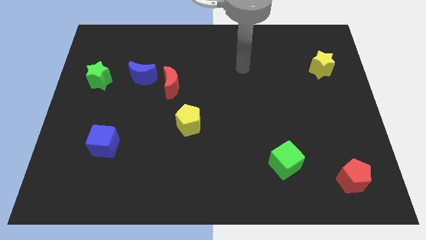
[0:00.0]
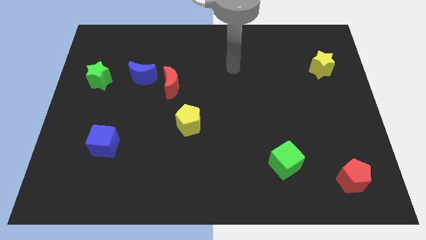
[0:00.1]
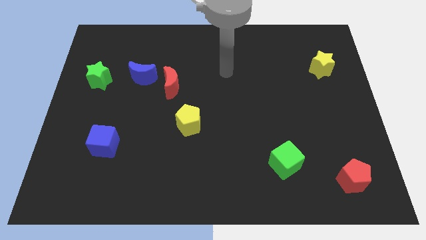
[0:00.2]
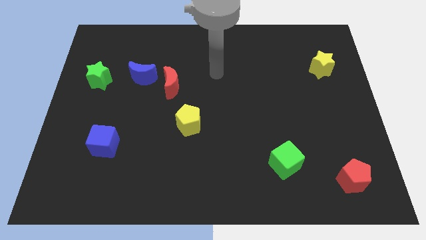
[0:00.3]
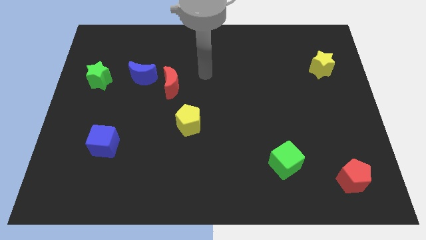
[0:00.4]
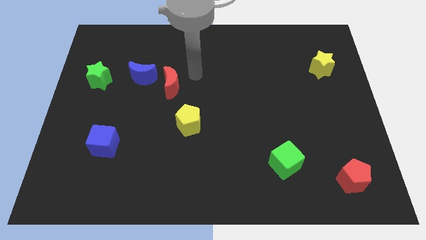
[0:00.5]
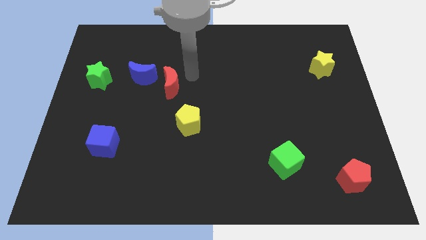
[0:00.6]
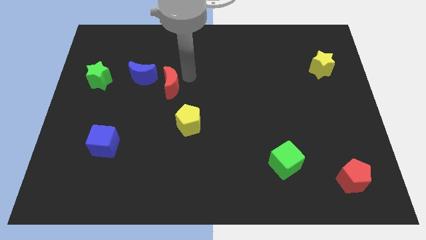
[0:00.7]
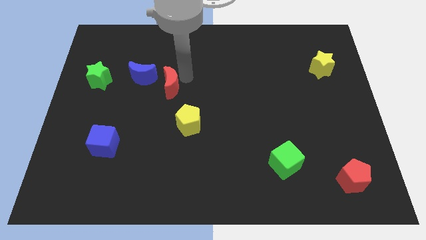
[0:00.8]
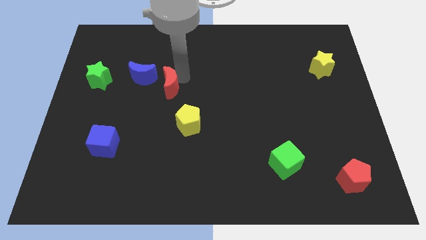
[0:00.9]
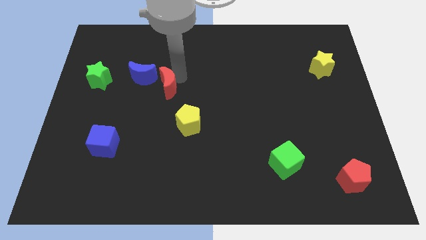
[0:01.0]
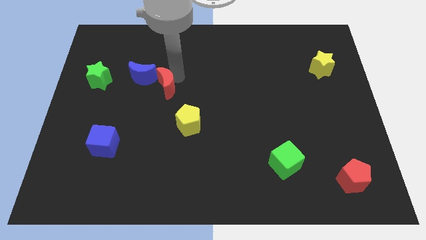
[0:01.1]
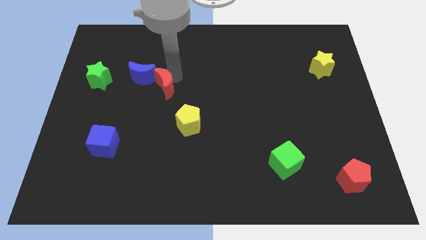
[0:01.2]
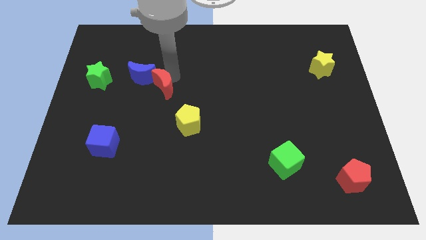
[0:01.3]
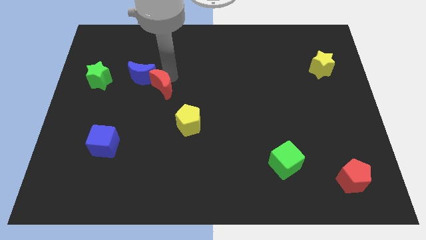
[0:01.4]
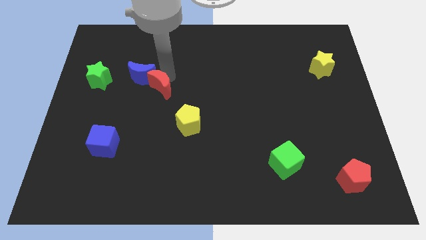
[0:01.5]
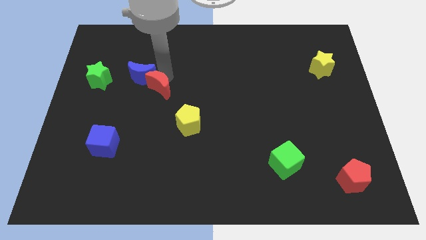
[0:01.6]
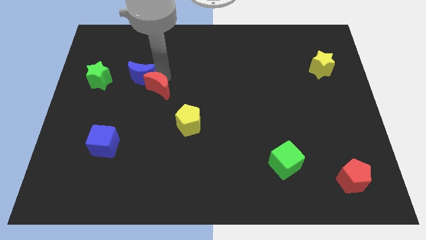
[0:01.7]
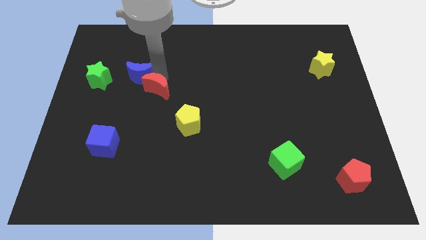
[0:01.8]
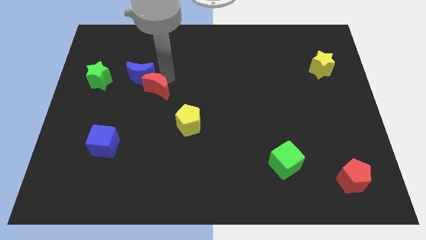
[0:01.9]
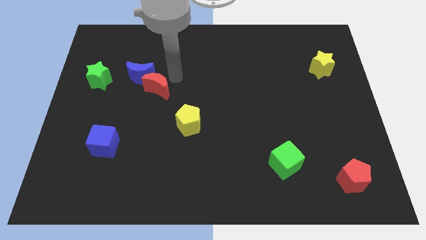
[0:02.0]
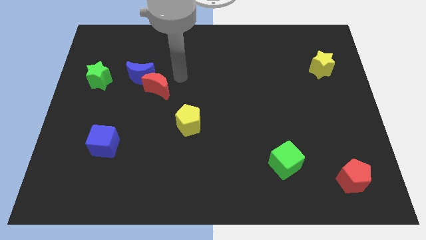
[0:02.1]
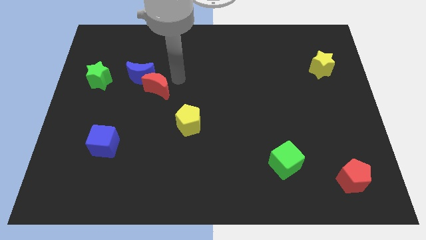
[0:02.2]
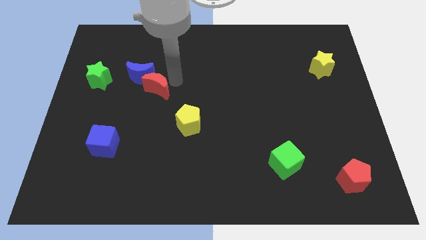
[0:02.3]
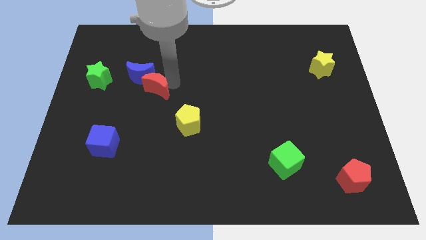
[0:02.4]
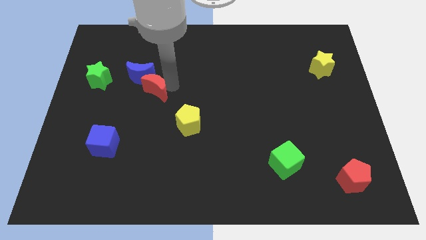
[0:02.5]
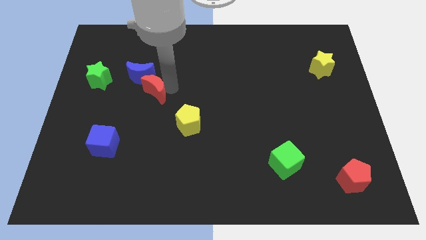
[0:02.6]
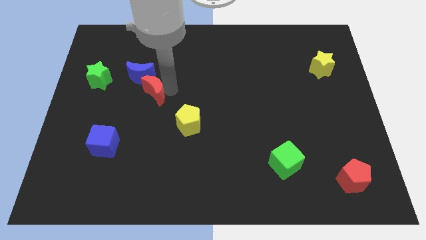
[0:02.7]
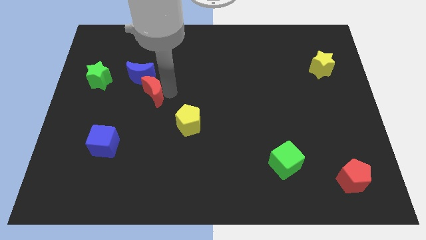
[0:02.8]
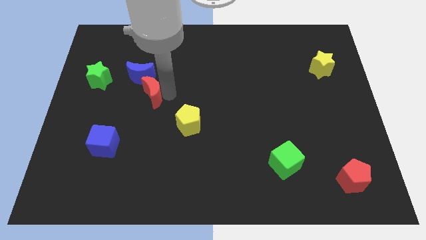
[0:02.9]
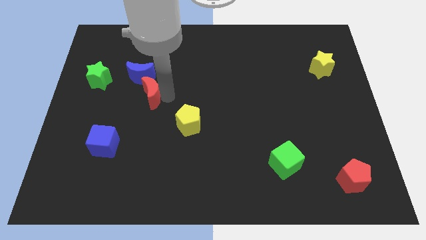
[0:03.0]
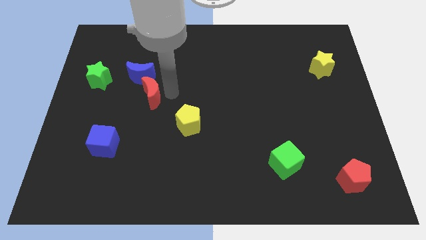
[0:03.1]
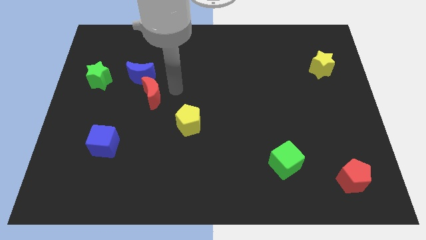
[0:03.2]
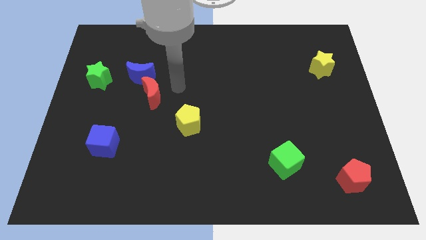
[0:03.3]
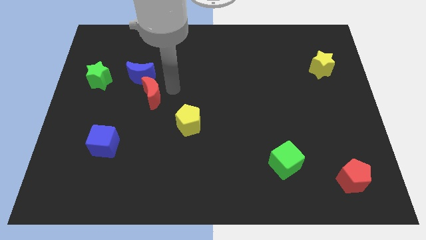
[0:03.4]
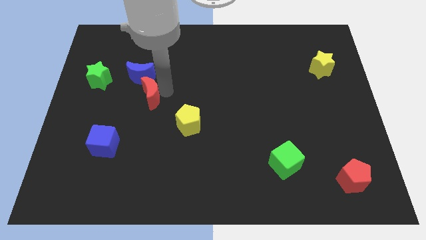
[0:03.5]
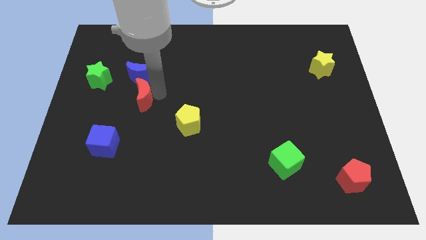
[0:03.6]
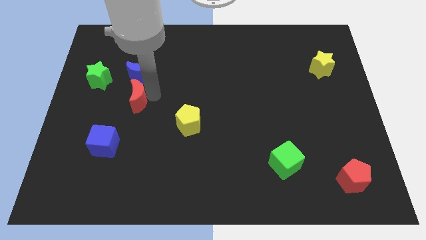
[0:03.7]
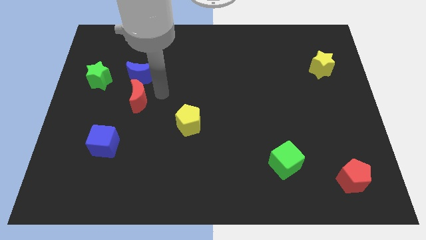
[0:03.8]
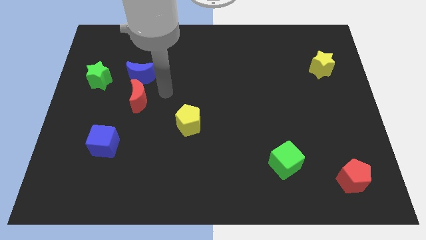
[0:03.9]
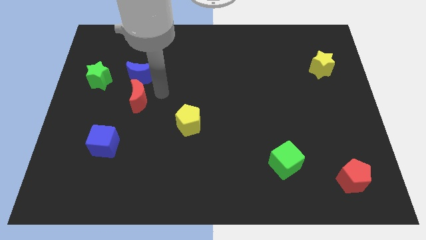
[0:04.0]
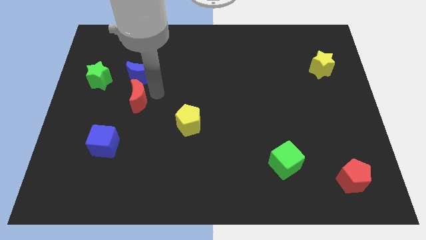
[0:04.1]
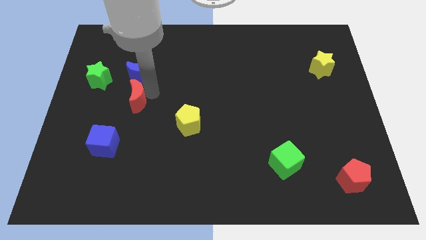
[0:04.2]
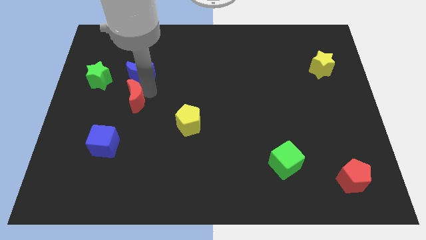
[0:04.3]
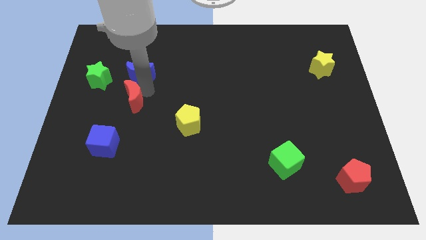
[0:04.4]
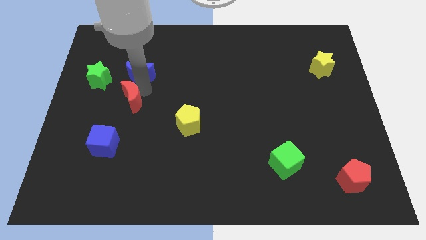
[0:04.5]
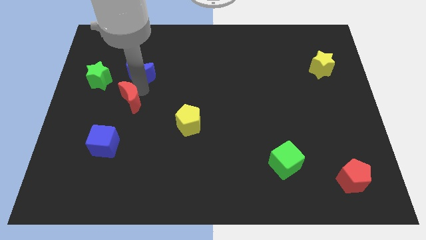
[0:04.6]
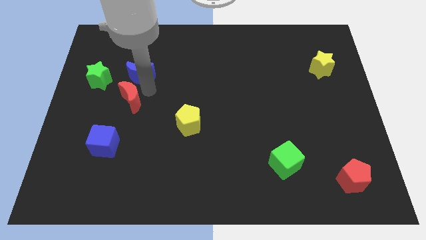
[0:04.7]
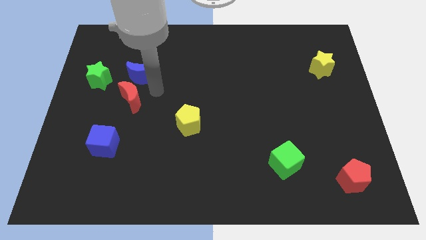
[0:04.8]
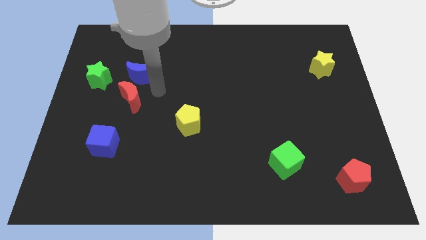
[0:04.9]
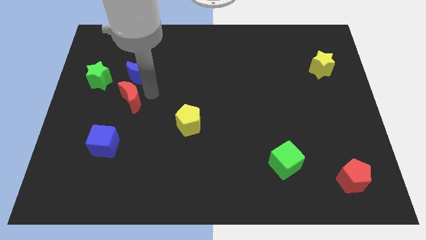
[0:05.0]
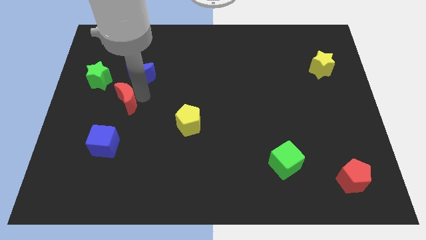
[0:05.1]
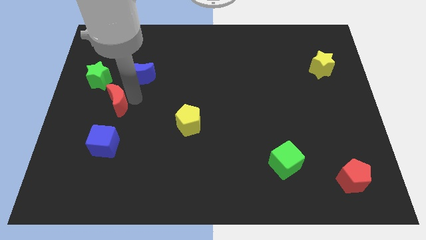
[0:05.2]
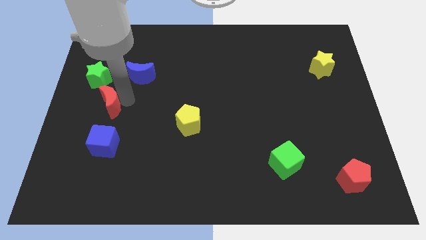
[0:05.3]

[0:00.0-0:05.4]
put the red moon below the green star

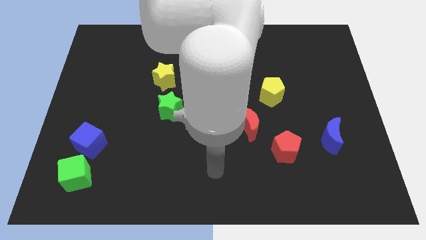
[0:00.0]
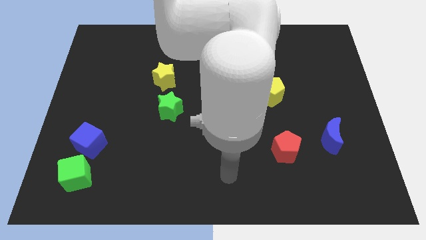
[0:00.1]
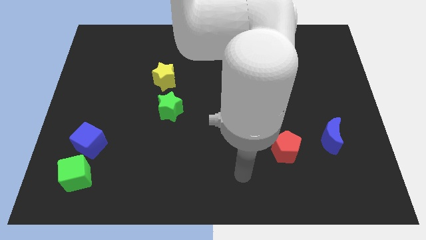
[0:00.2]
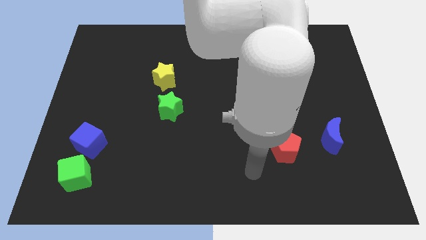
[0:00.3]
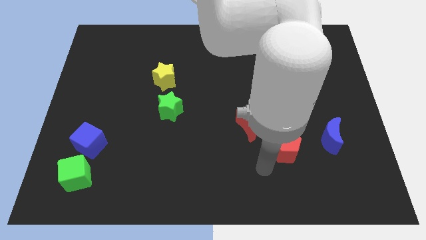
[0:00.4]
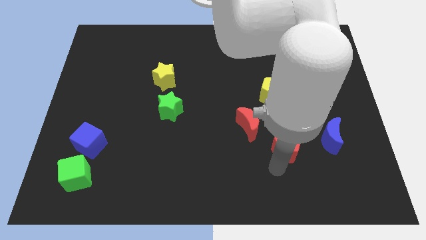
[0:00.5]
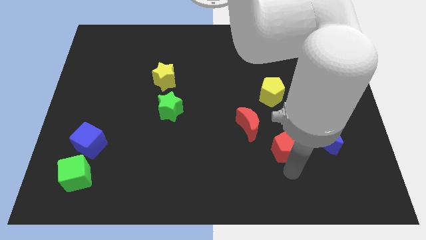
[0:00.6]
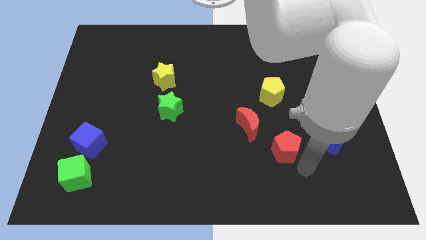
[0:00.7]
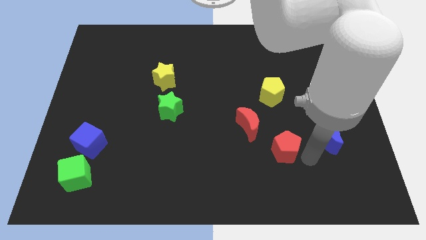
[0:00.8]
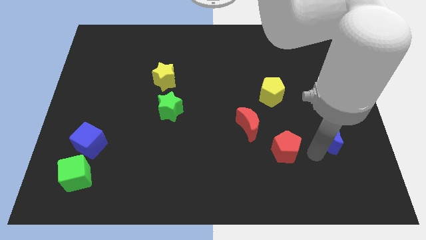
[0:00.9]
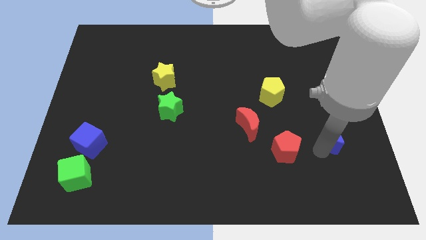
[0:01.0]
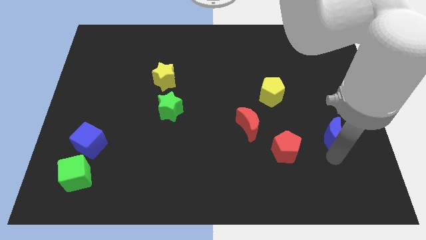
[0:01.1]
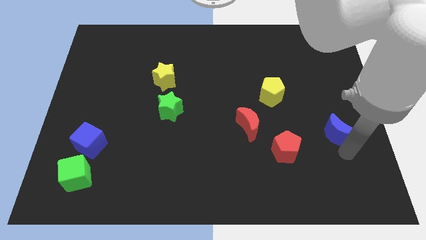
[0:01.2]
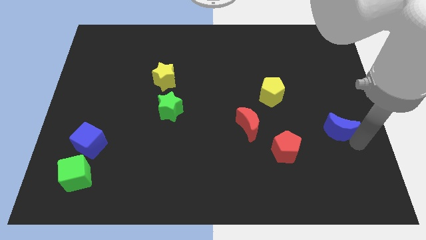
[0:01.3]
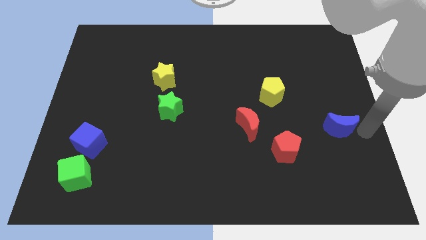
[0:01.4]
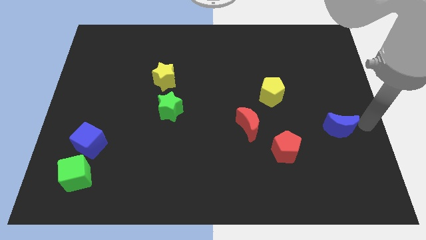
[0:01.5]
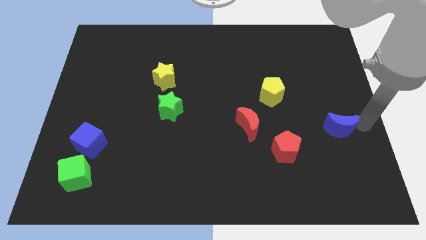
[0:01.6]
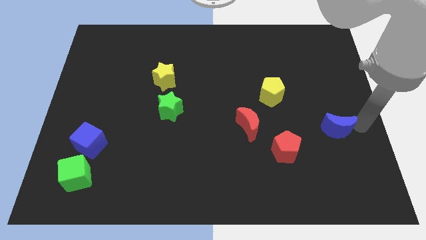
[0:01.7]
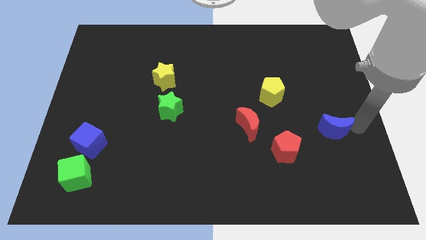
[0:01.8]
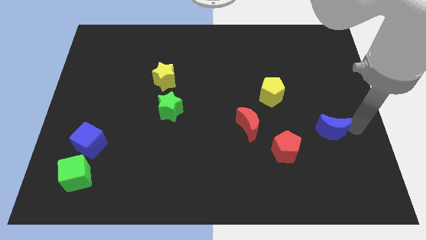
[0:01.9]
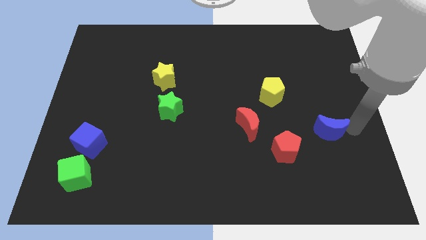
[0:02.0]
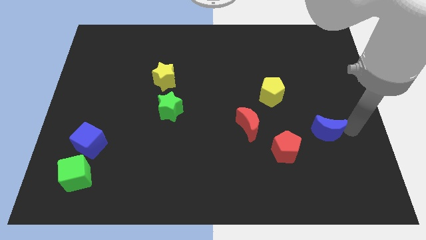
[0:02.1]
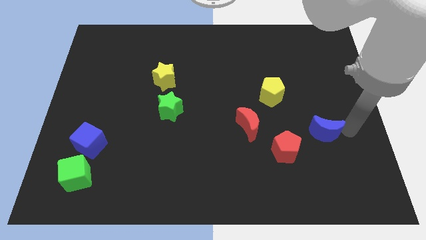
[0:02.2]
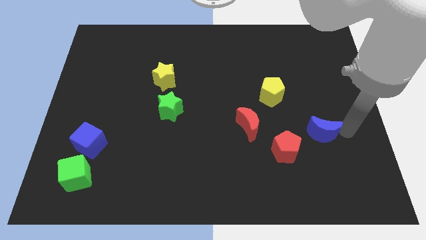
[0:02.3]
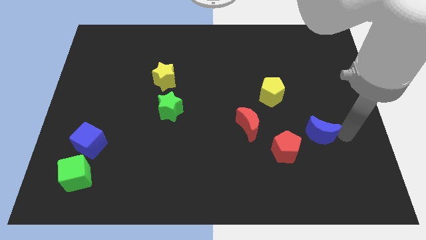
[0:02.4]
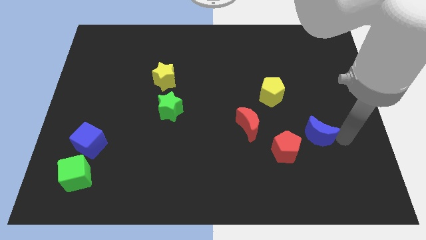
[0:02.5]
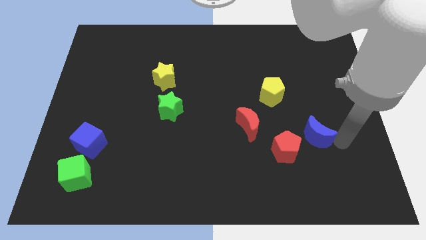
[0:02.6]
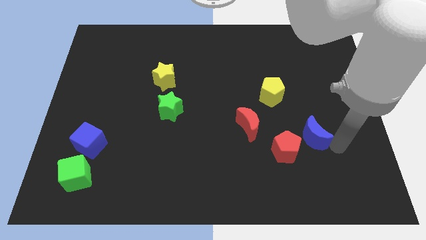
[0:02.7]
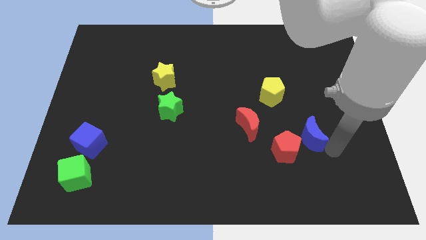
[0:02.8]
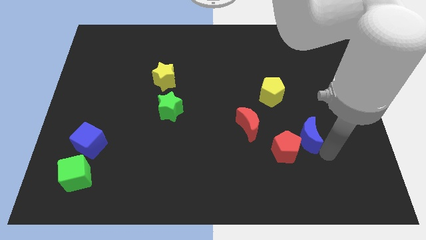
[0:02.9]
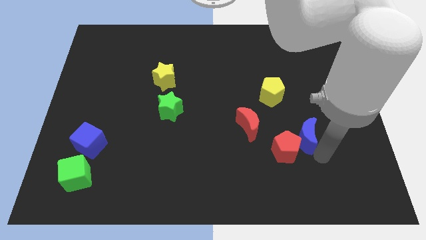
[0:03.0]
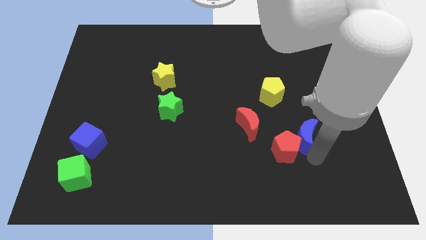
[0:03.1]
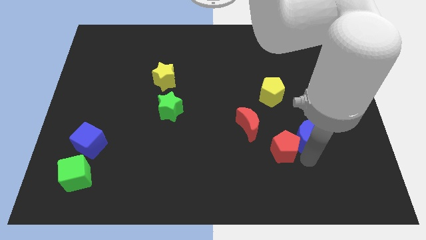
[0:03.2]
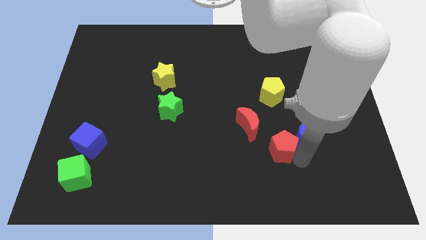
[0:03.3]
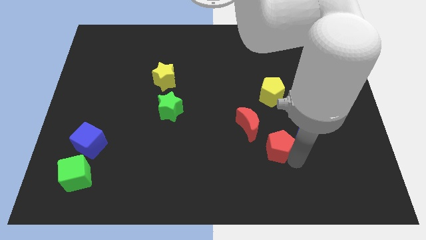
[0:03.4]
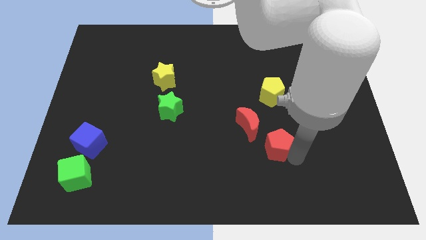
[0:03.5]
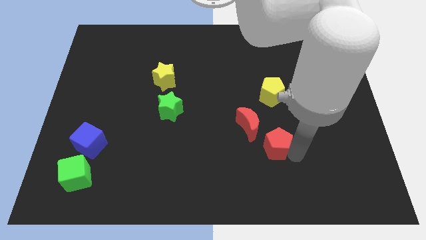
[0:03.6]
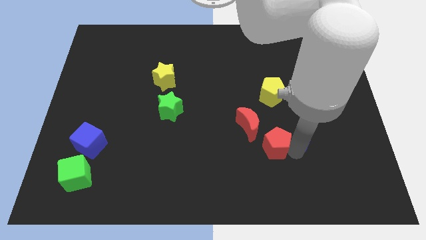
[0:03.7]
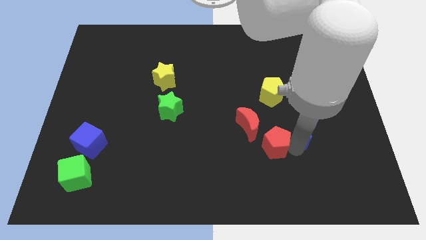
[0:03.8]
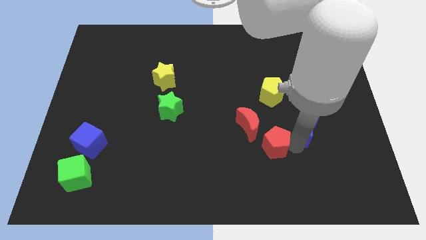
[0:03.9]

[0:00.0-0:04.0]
move the blue moon to the bottom right side of the yellow pentagon
